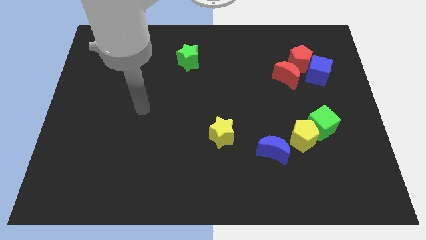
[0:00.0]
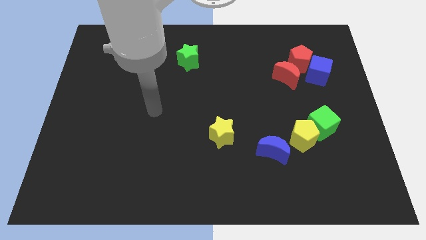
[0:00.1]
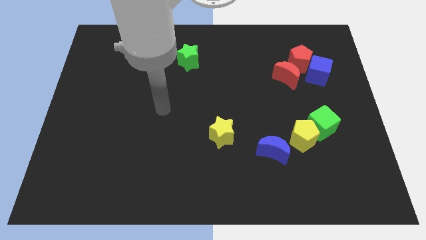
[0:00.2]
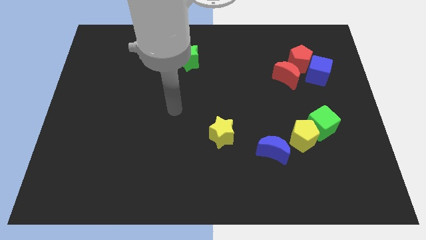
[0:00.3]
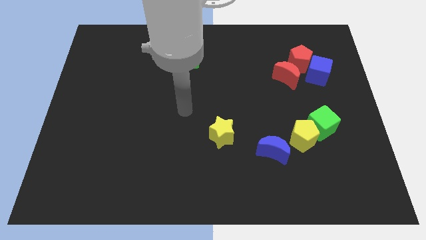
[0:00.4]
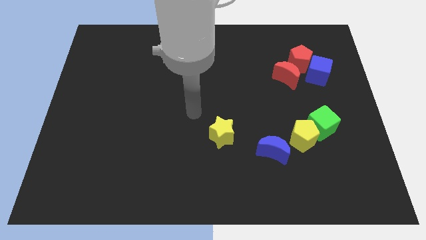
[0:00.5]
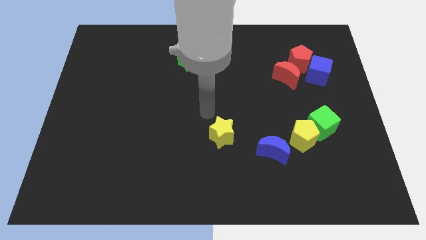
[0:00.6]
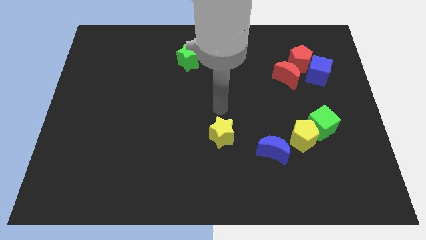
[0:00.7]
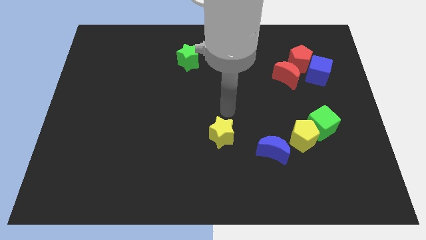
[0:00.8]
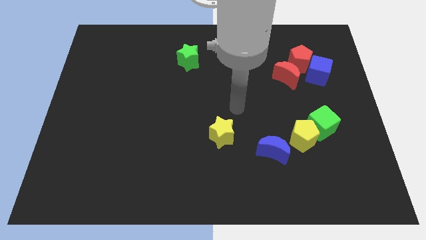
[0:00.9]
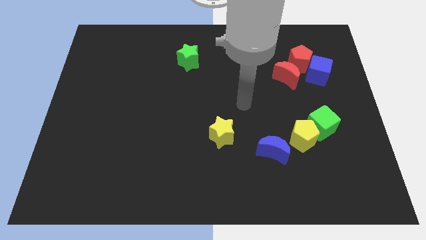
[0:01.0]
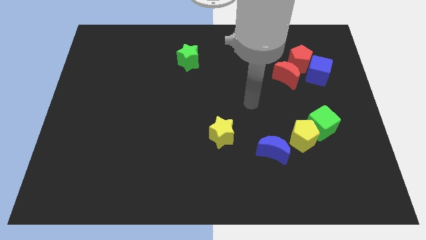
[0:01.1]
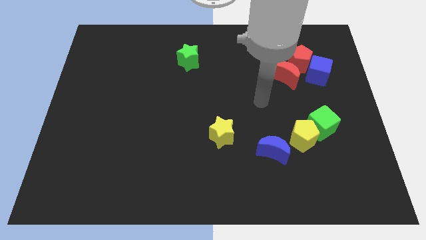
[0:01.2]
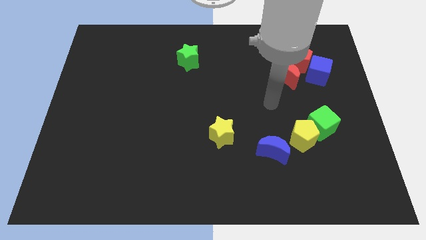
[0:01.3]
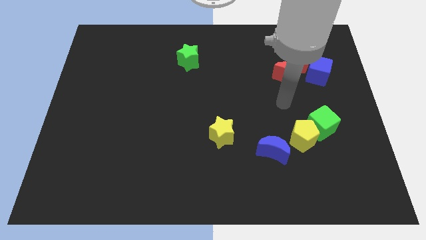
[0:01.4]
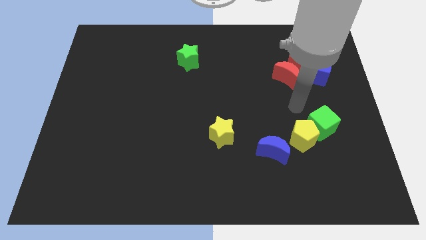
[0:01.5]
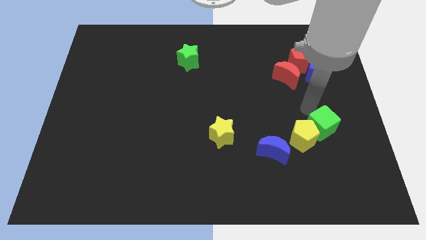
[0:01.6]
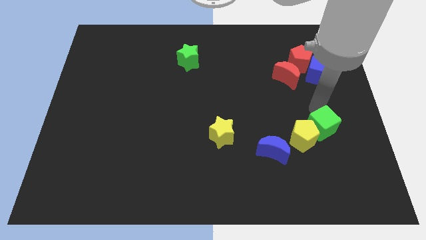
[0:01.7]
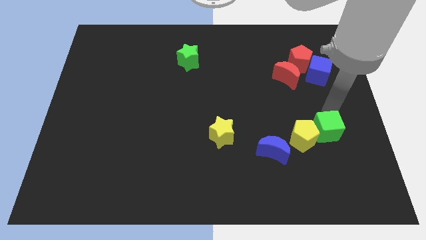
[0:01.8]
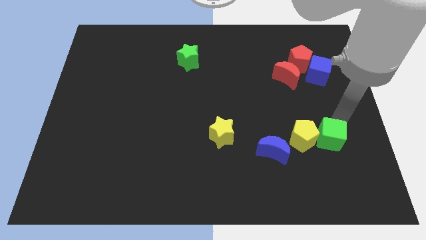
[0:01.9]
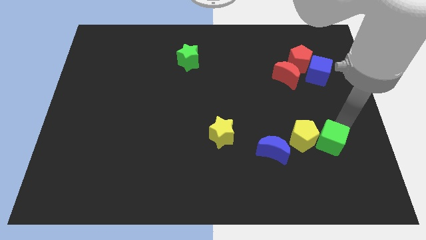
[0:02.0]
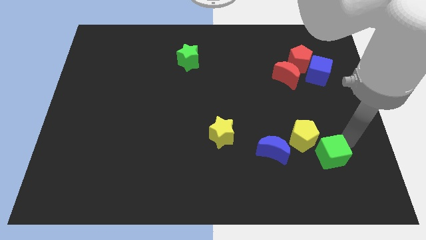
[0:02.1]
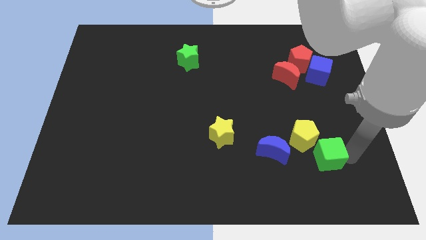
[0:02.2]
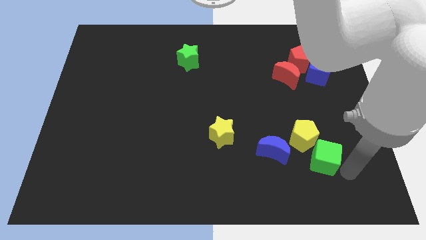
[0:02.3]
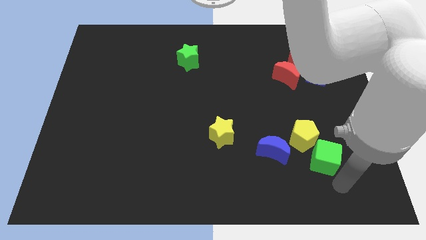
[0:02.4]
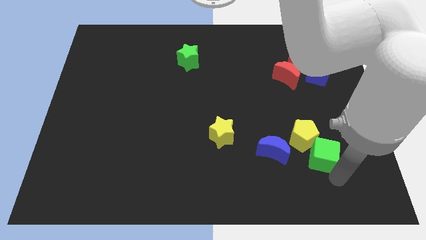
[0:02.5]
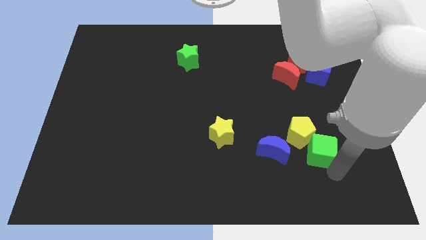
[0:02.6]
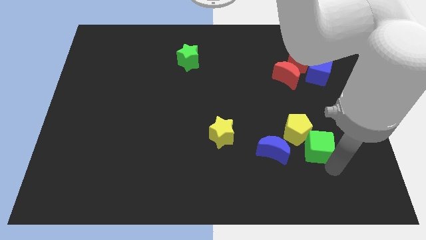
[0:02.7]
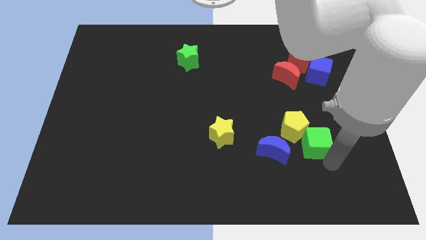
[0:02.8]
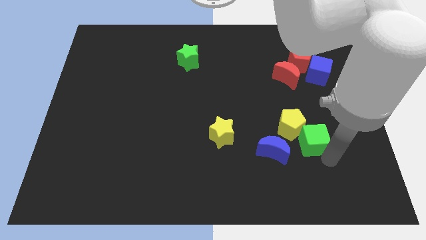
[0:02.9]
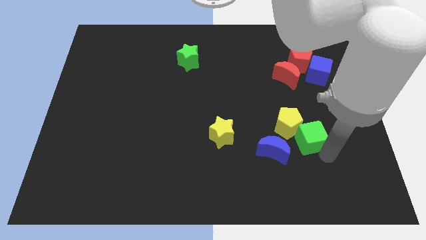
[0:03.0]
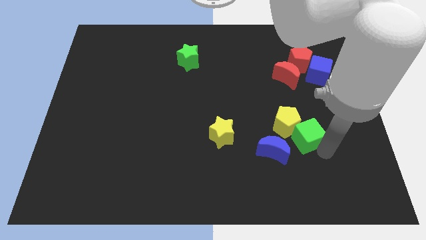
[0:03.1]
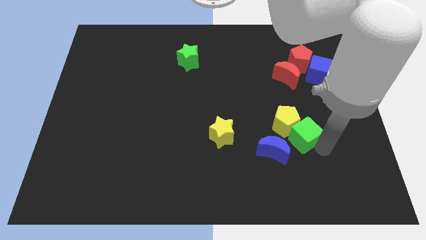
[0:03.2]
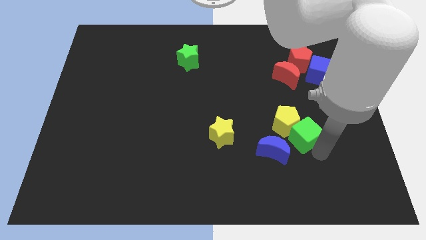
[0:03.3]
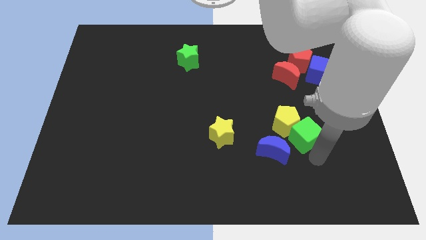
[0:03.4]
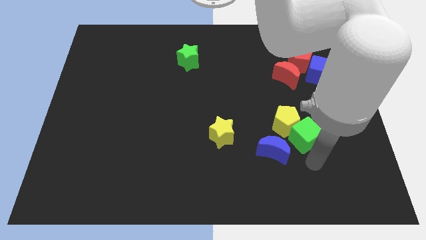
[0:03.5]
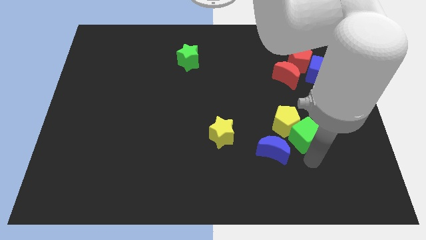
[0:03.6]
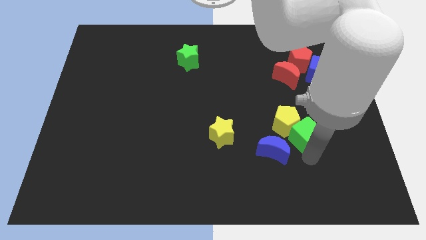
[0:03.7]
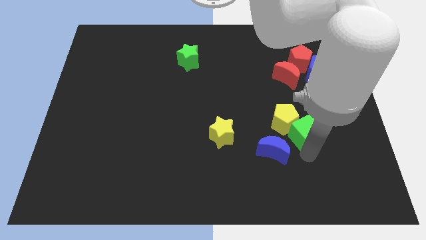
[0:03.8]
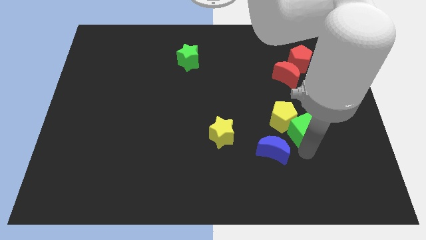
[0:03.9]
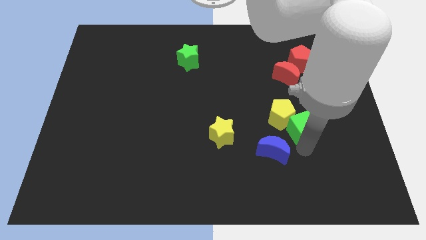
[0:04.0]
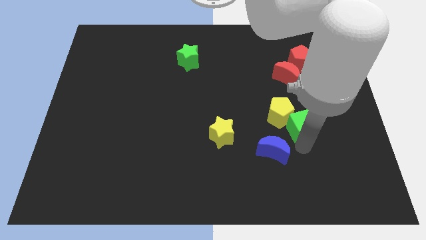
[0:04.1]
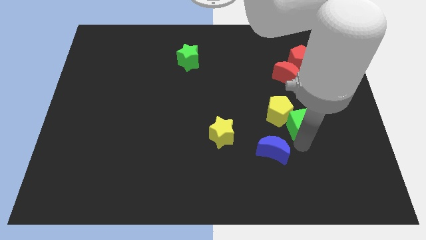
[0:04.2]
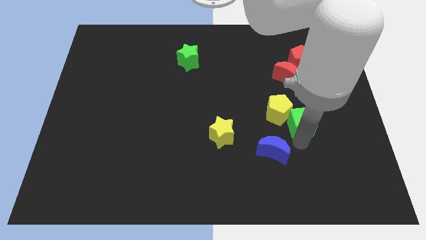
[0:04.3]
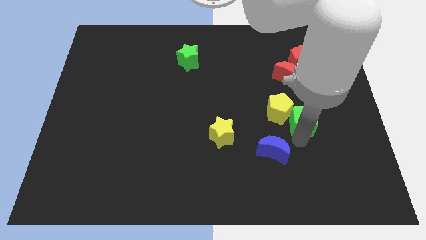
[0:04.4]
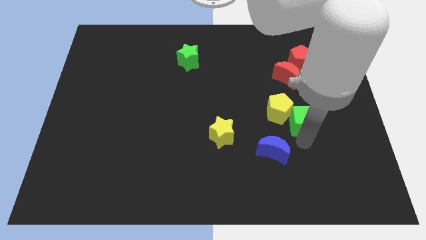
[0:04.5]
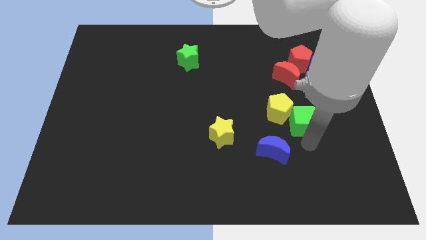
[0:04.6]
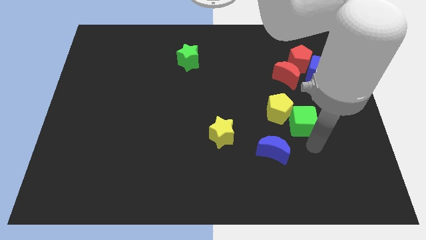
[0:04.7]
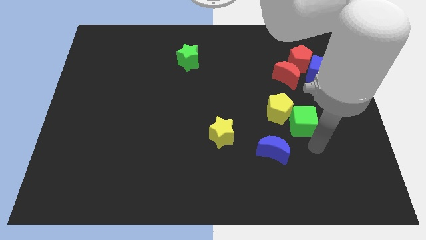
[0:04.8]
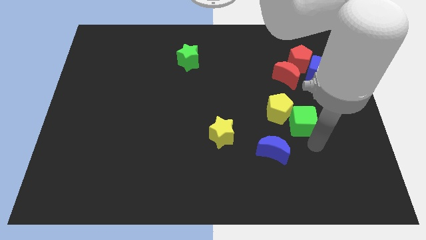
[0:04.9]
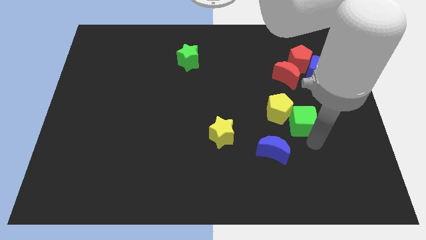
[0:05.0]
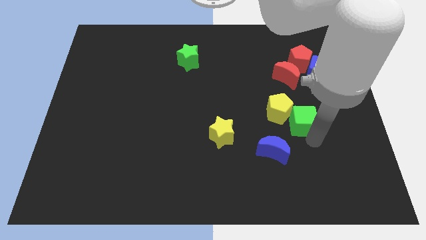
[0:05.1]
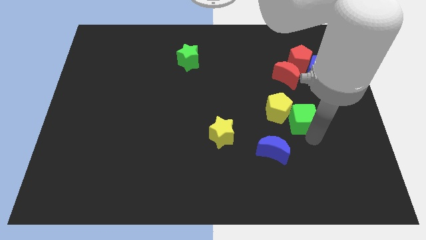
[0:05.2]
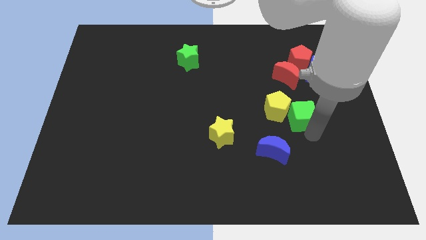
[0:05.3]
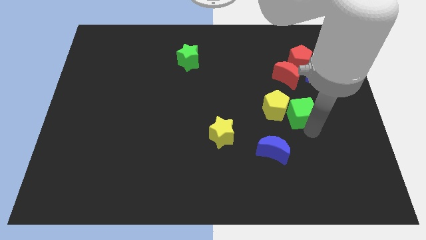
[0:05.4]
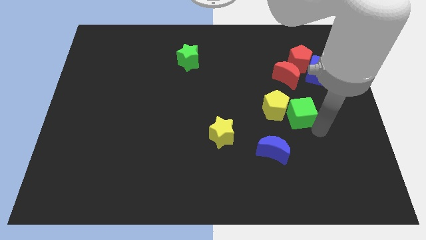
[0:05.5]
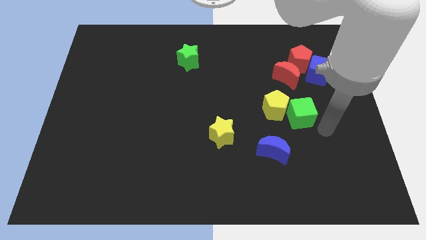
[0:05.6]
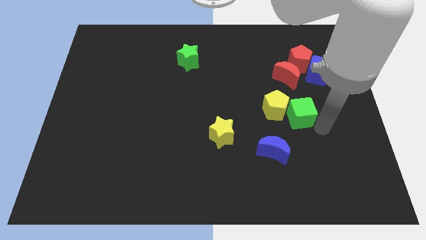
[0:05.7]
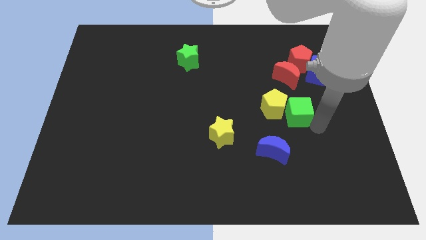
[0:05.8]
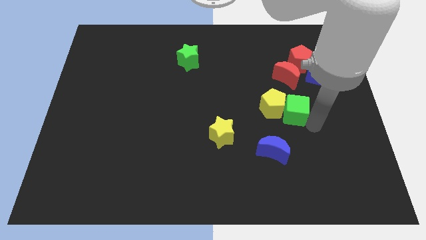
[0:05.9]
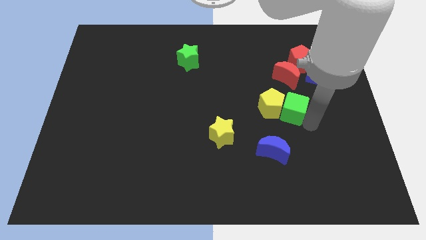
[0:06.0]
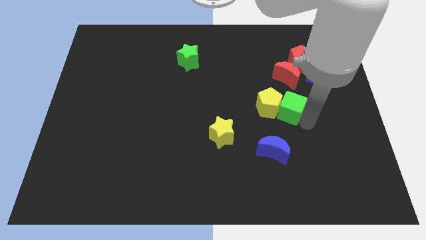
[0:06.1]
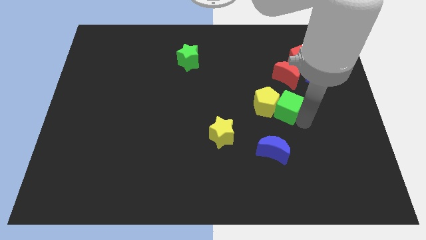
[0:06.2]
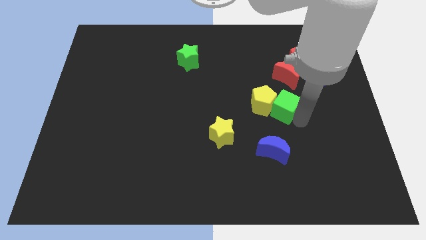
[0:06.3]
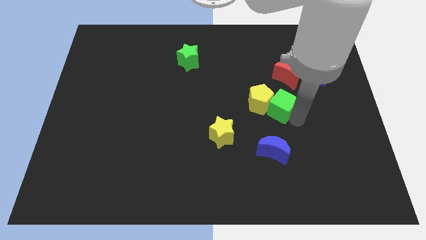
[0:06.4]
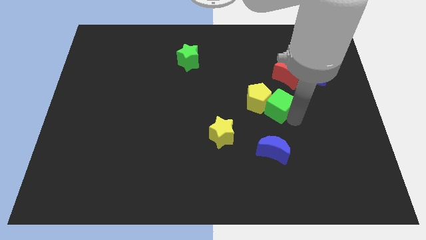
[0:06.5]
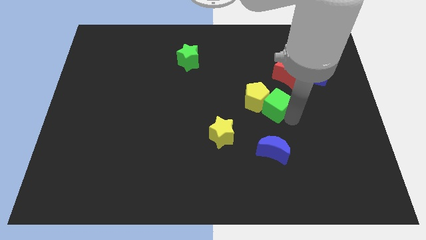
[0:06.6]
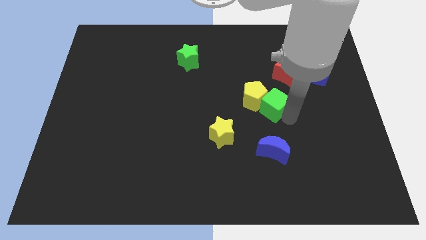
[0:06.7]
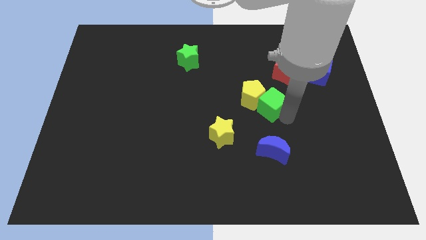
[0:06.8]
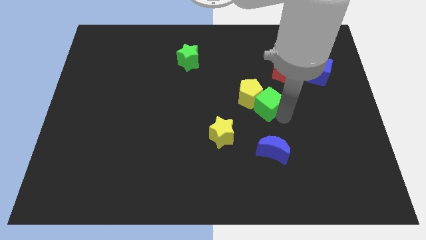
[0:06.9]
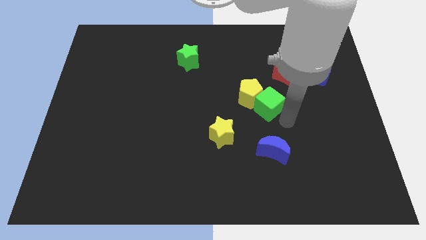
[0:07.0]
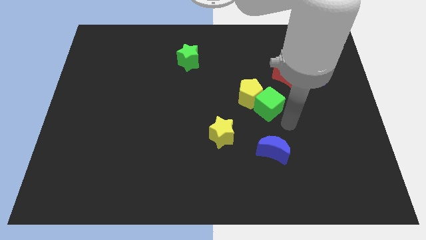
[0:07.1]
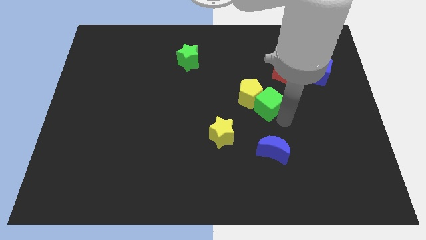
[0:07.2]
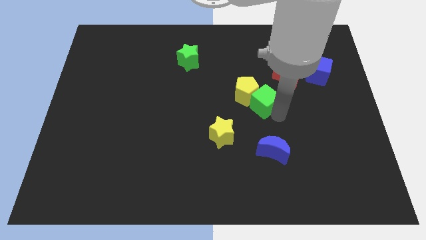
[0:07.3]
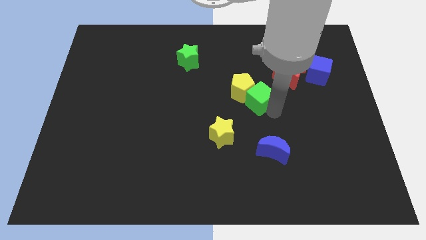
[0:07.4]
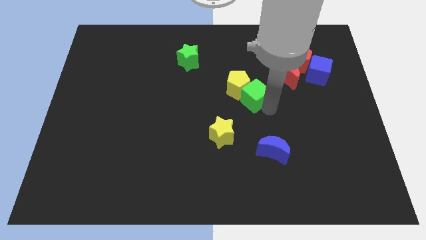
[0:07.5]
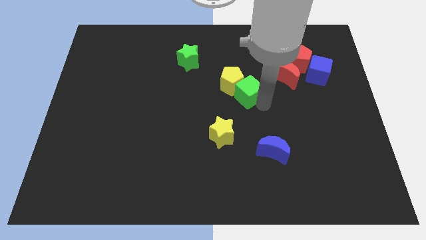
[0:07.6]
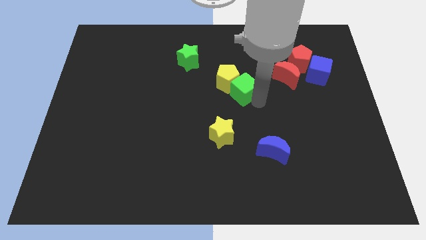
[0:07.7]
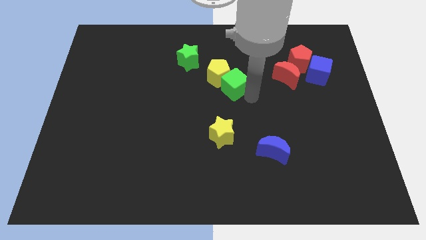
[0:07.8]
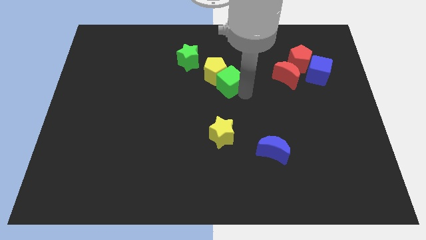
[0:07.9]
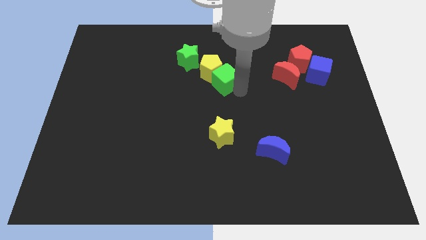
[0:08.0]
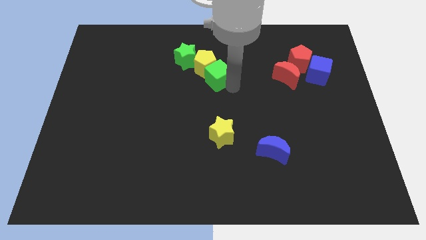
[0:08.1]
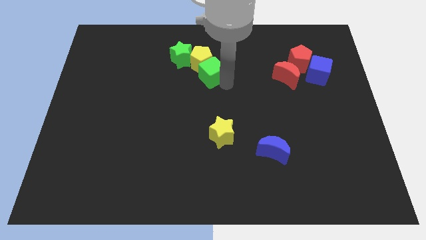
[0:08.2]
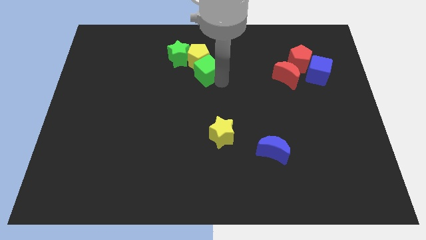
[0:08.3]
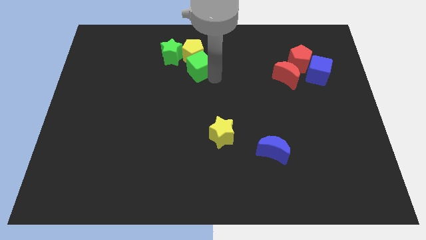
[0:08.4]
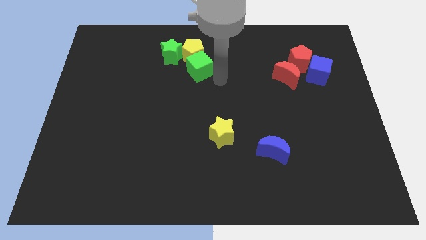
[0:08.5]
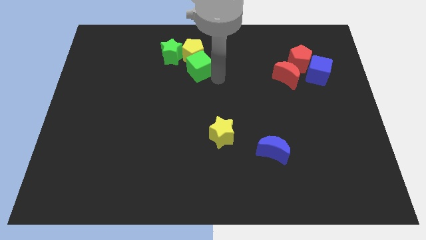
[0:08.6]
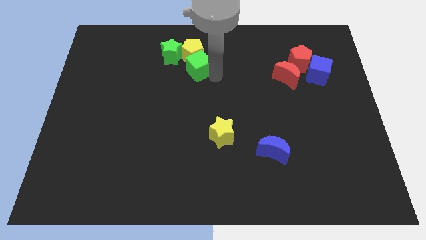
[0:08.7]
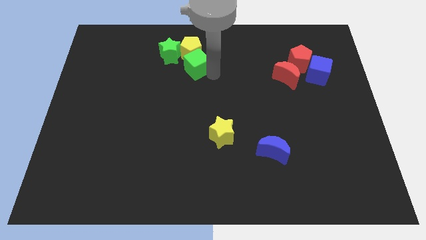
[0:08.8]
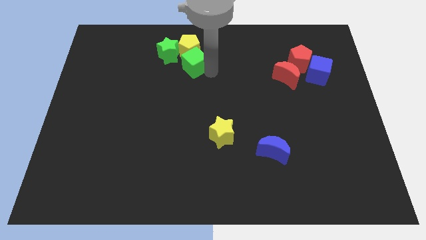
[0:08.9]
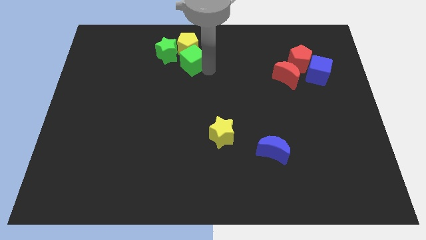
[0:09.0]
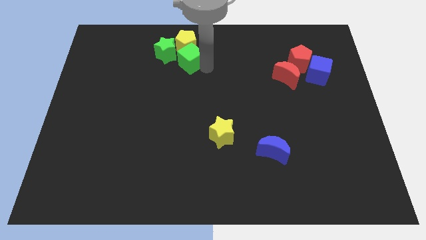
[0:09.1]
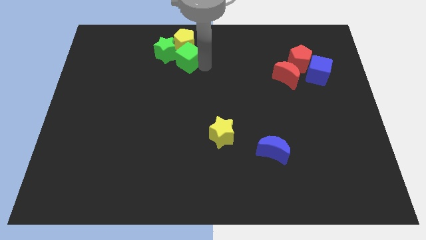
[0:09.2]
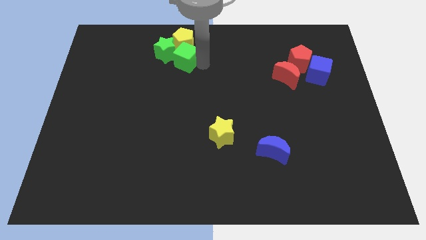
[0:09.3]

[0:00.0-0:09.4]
slide the green cube towards the green star
